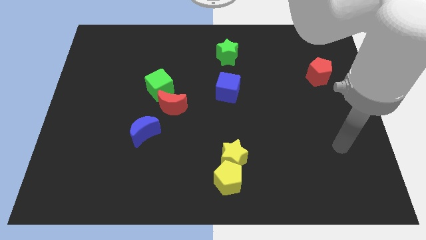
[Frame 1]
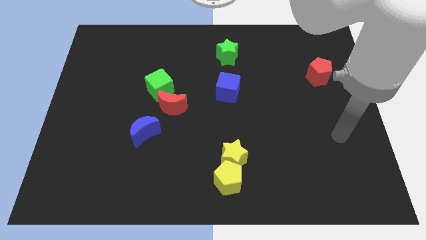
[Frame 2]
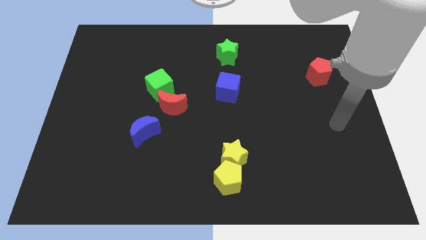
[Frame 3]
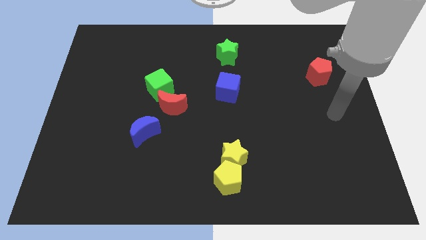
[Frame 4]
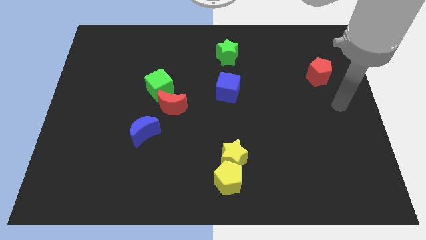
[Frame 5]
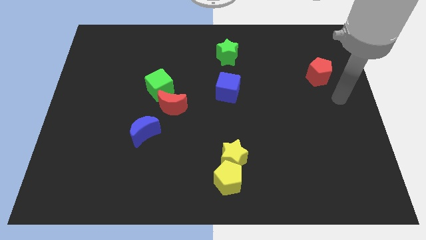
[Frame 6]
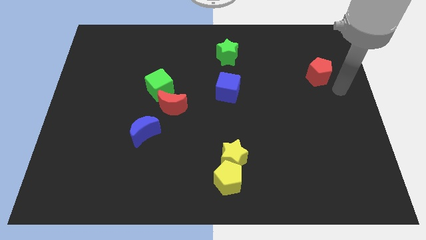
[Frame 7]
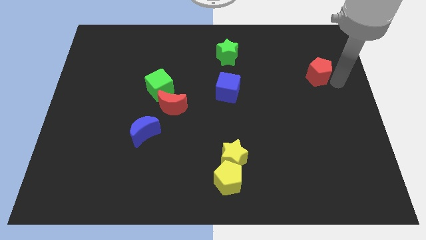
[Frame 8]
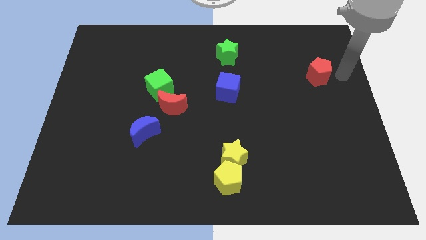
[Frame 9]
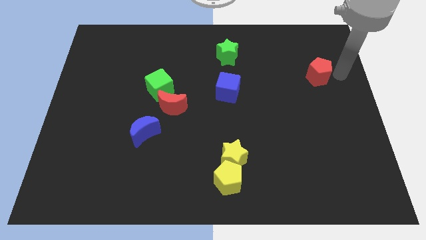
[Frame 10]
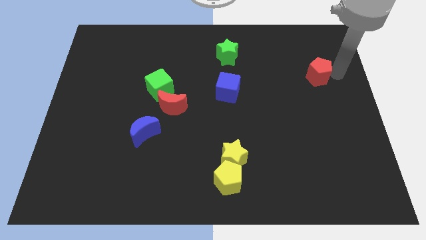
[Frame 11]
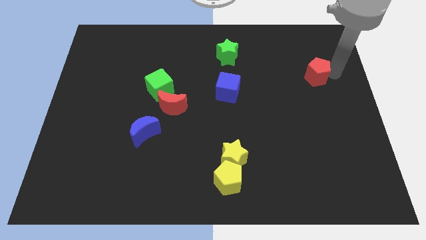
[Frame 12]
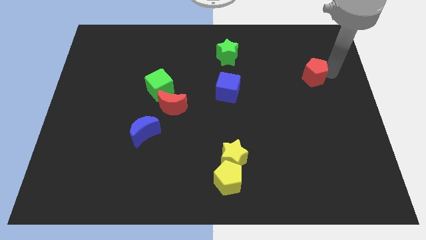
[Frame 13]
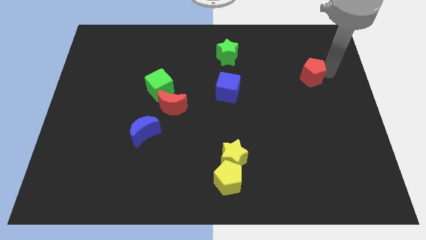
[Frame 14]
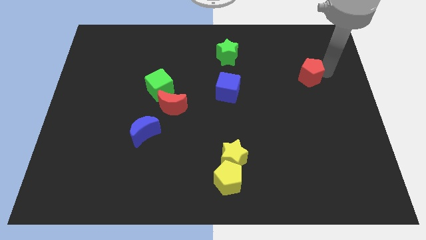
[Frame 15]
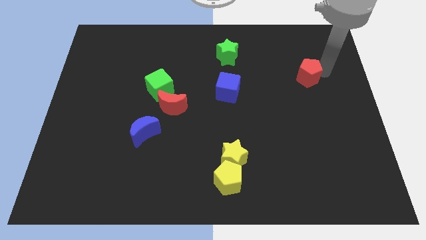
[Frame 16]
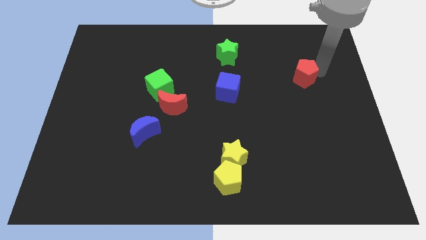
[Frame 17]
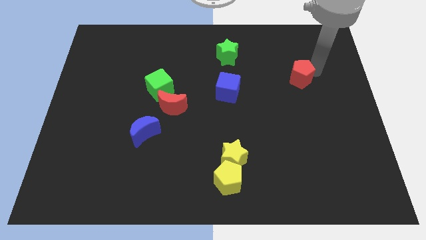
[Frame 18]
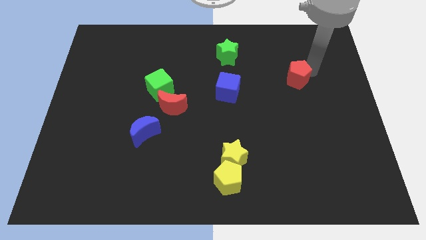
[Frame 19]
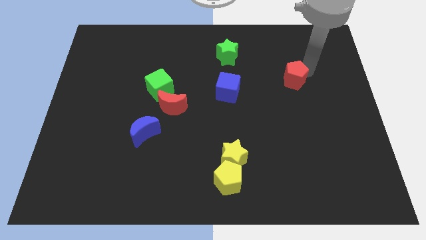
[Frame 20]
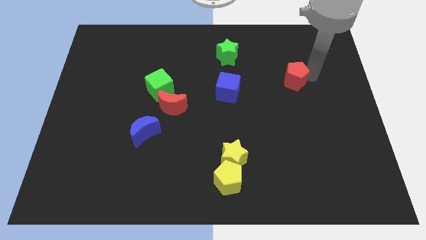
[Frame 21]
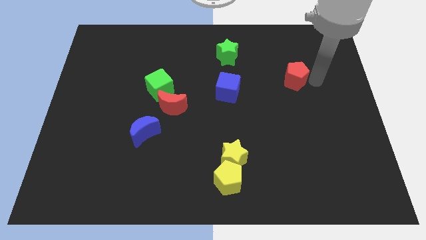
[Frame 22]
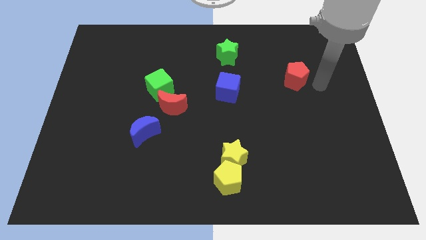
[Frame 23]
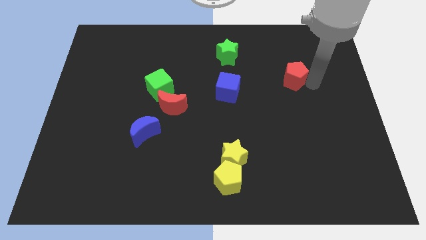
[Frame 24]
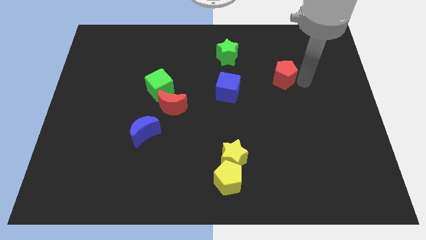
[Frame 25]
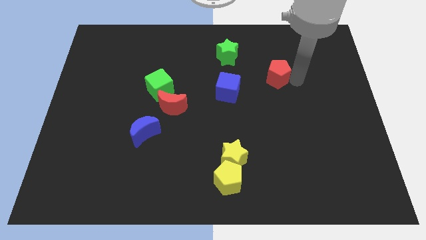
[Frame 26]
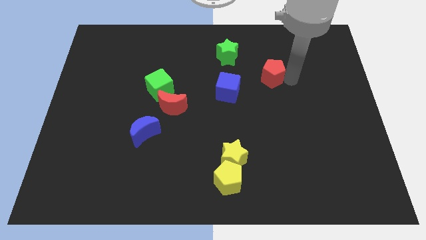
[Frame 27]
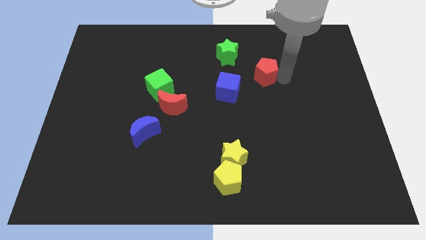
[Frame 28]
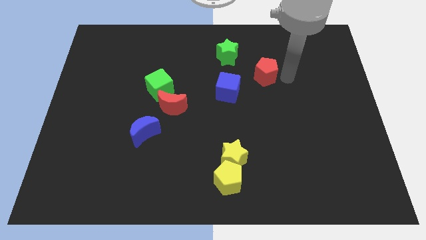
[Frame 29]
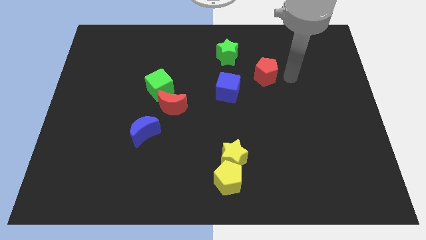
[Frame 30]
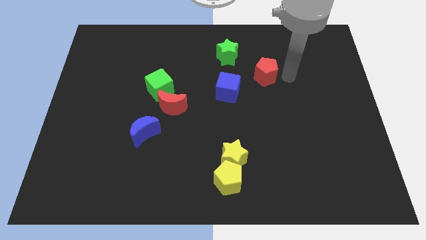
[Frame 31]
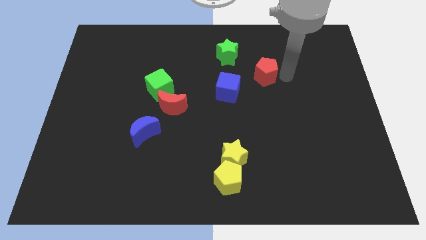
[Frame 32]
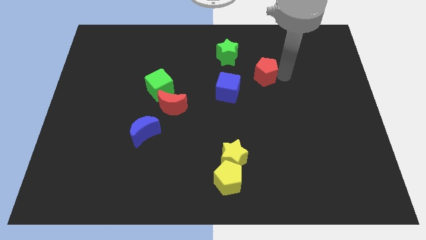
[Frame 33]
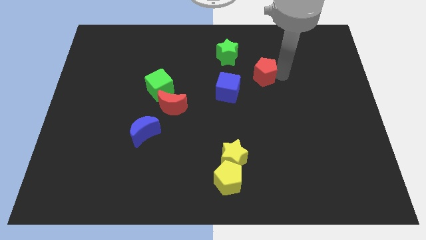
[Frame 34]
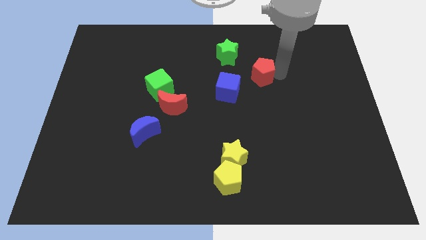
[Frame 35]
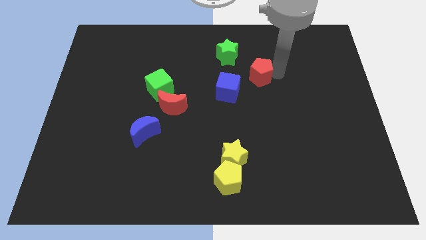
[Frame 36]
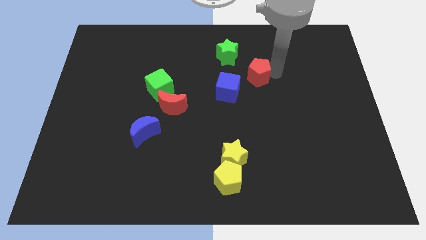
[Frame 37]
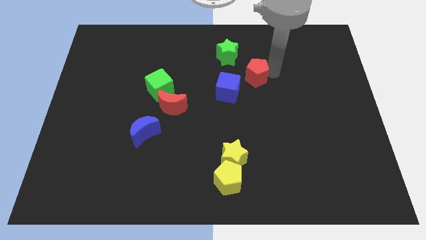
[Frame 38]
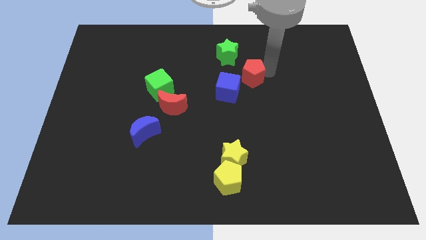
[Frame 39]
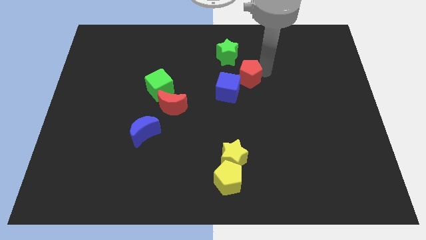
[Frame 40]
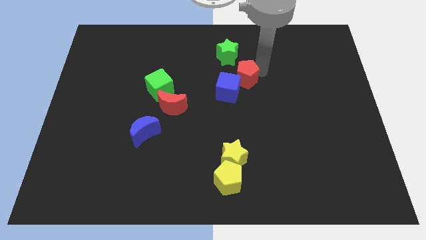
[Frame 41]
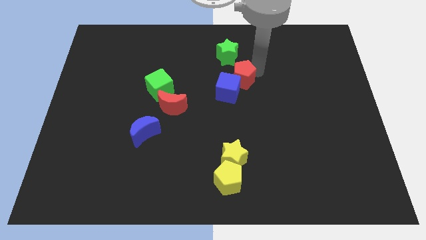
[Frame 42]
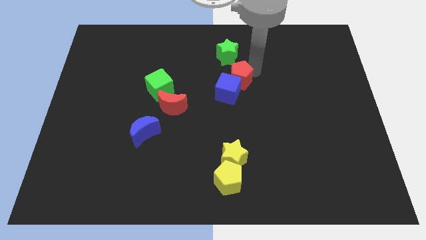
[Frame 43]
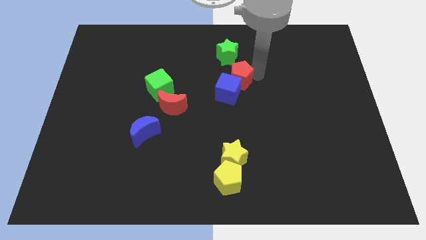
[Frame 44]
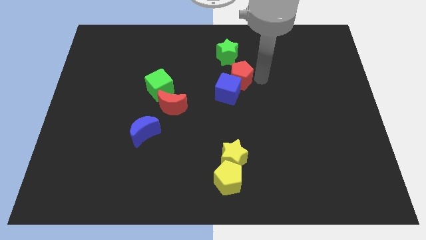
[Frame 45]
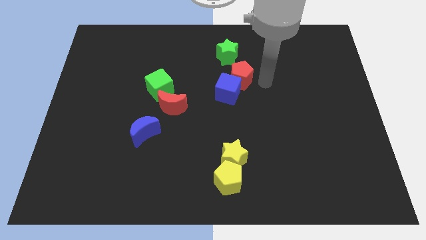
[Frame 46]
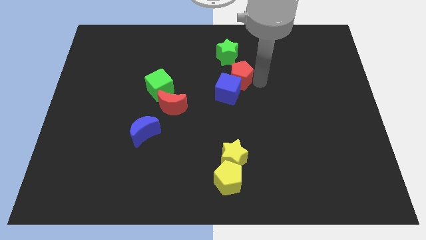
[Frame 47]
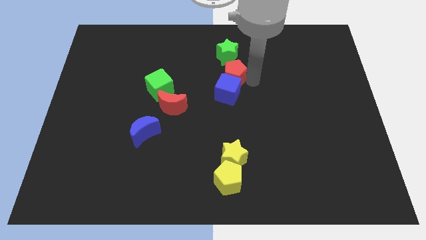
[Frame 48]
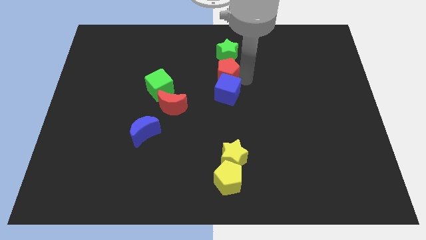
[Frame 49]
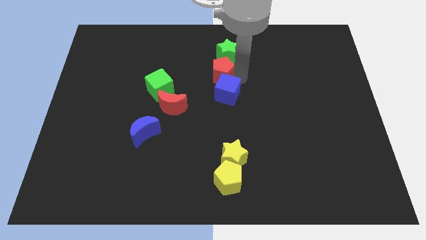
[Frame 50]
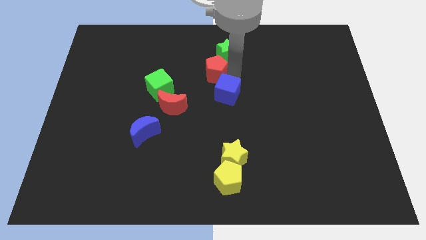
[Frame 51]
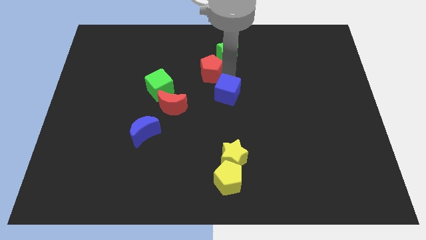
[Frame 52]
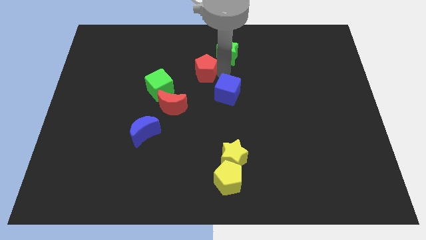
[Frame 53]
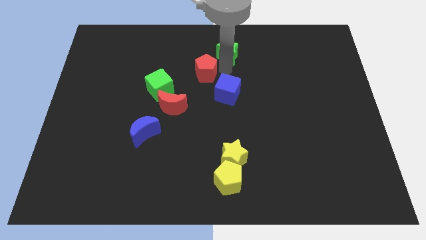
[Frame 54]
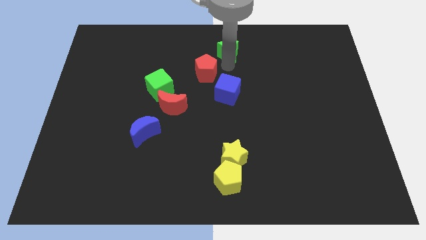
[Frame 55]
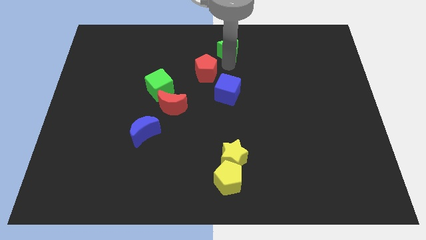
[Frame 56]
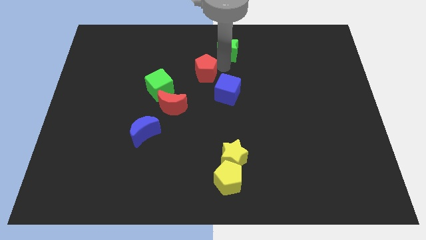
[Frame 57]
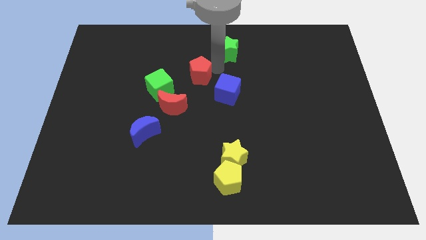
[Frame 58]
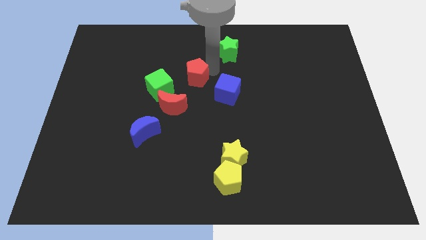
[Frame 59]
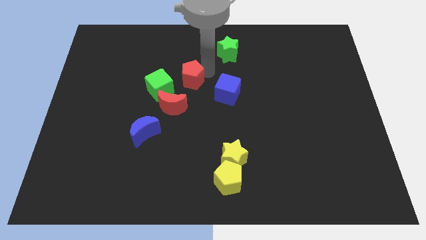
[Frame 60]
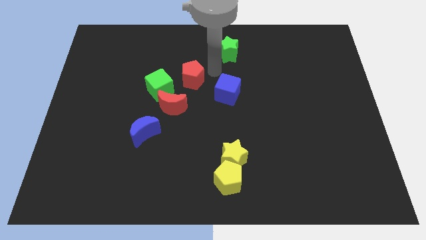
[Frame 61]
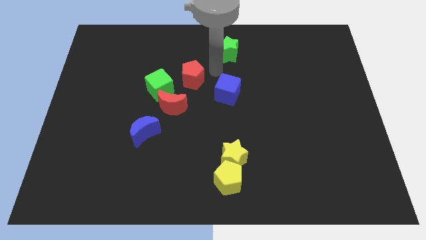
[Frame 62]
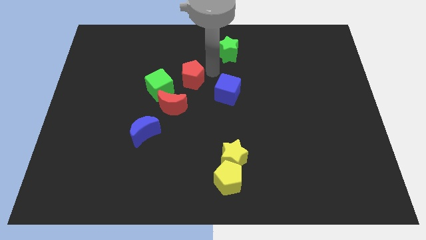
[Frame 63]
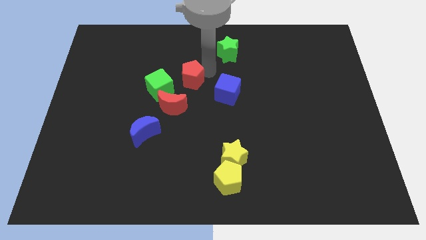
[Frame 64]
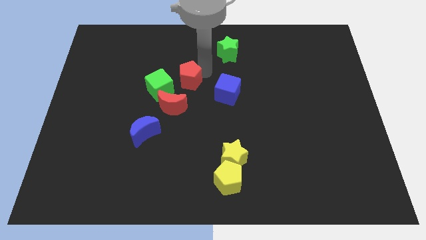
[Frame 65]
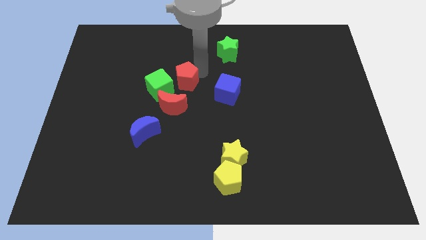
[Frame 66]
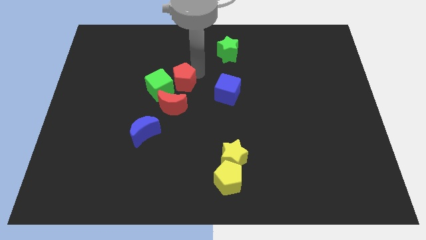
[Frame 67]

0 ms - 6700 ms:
slide the red pentagon to the green cube

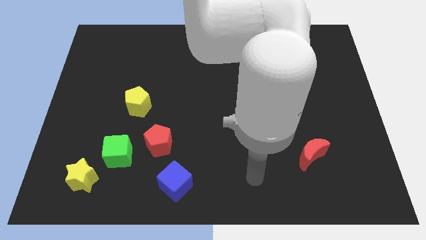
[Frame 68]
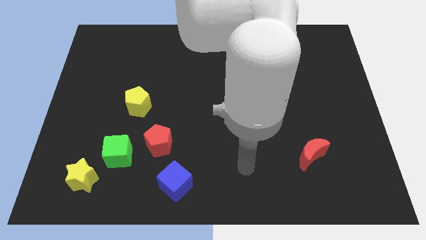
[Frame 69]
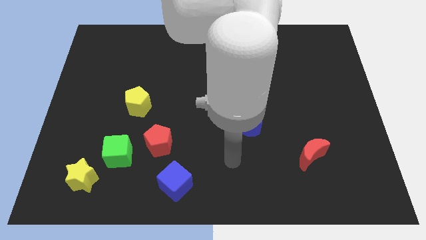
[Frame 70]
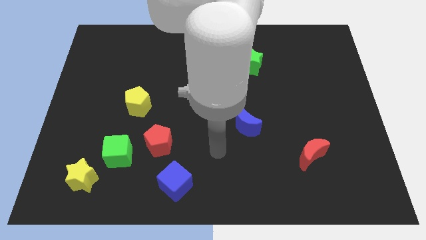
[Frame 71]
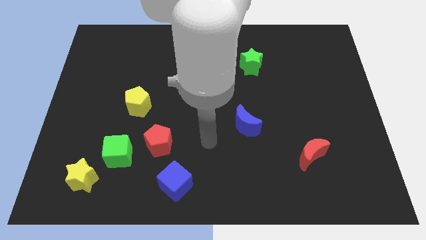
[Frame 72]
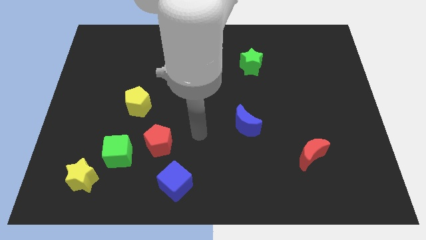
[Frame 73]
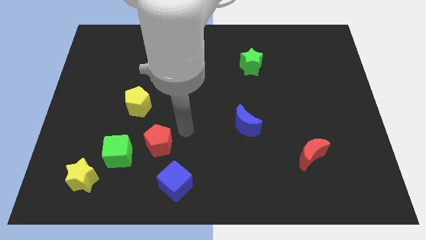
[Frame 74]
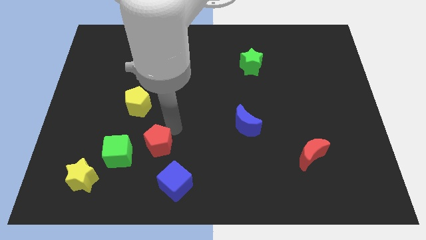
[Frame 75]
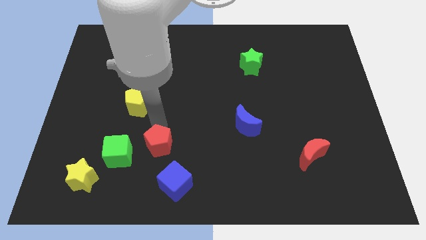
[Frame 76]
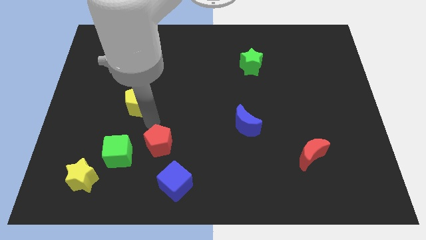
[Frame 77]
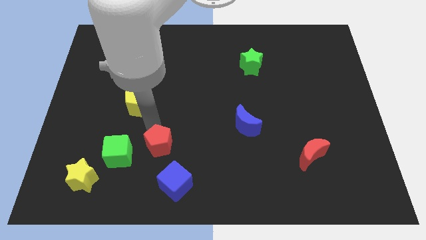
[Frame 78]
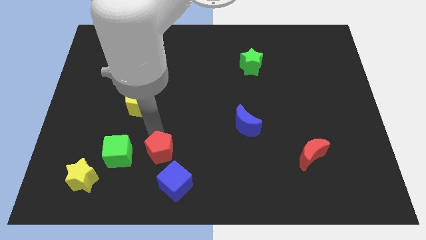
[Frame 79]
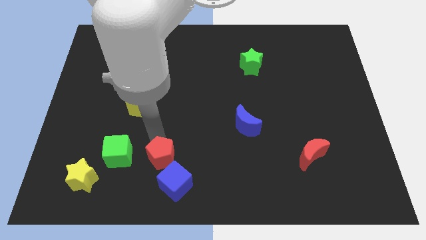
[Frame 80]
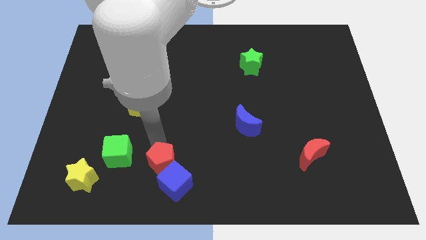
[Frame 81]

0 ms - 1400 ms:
put the red pentagon to the blue cube
